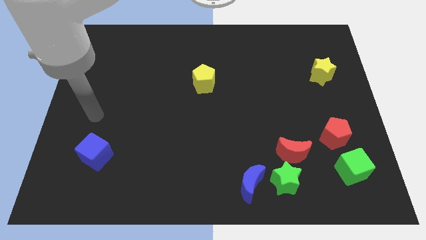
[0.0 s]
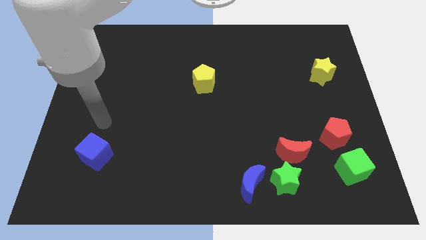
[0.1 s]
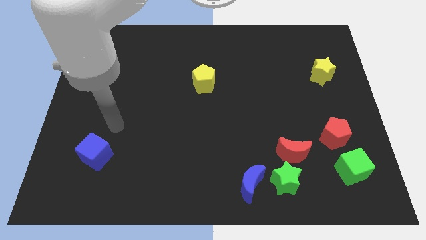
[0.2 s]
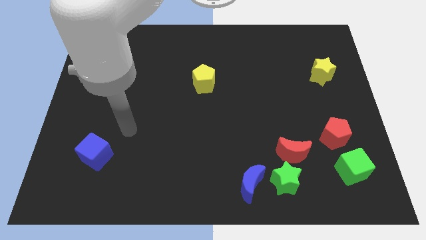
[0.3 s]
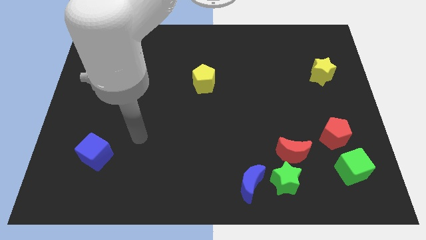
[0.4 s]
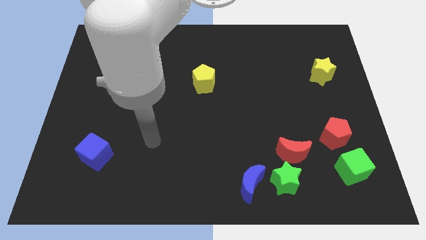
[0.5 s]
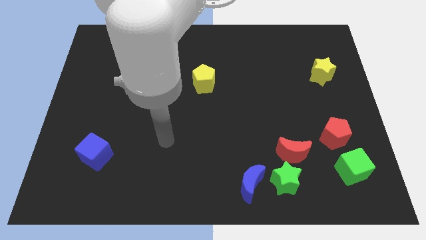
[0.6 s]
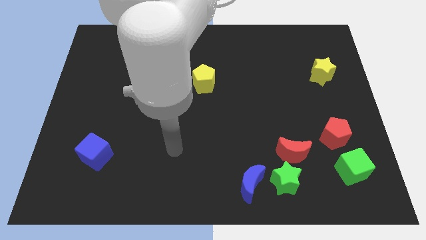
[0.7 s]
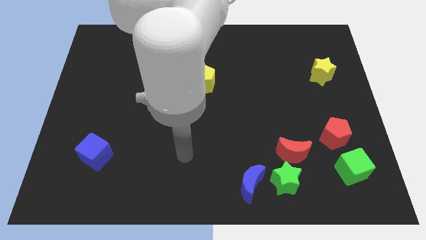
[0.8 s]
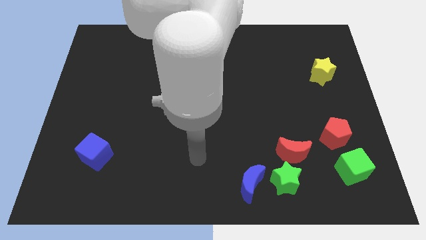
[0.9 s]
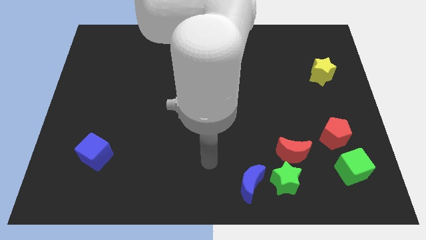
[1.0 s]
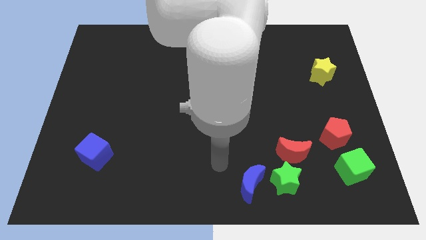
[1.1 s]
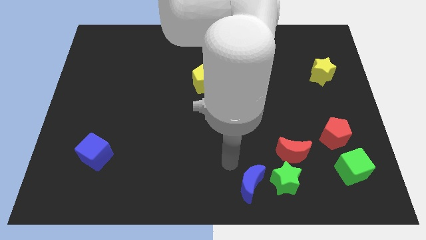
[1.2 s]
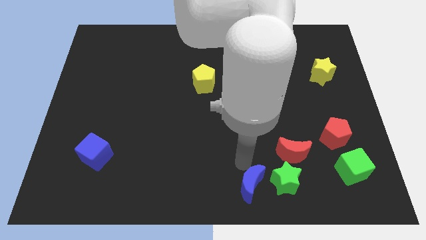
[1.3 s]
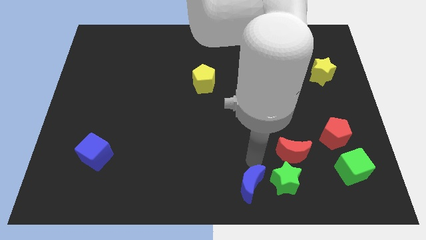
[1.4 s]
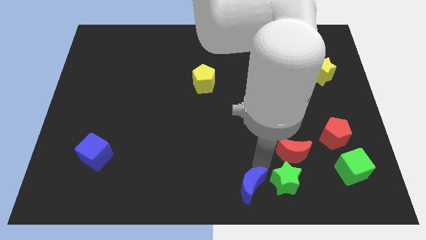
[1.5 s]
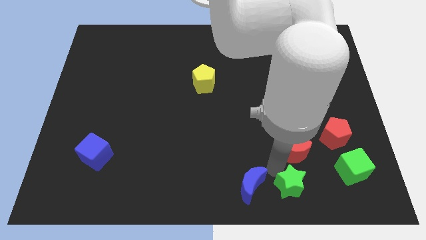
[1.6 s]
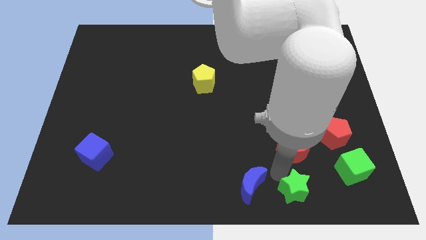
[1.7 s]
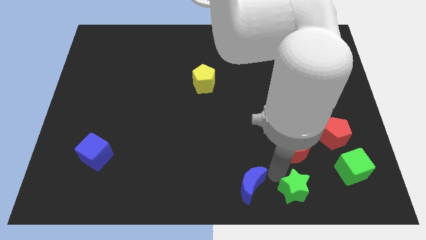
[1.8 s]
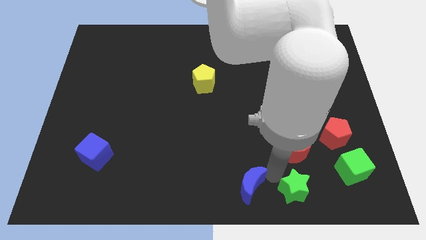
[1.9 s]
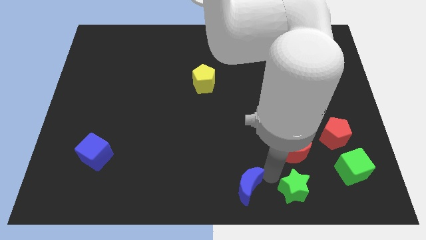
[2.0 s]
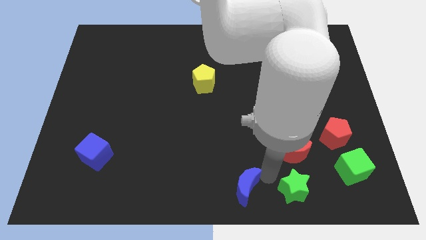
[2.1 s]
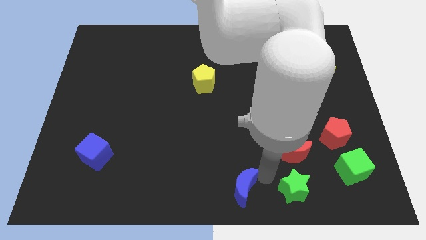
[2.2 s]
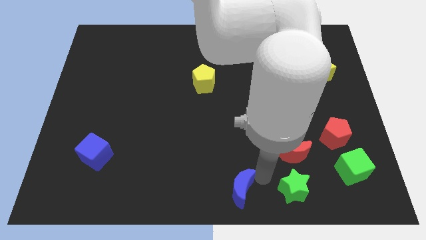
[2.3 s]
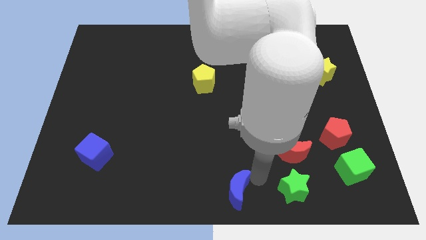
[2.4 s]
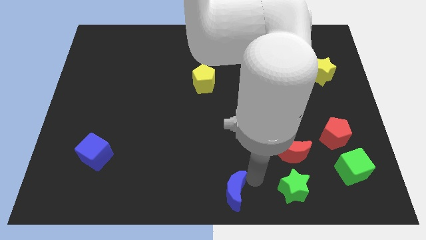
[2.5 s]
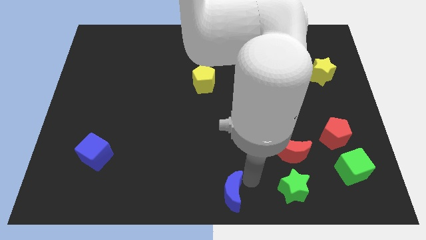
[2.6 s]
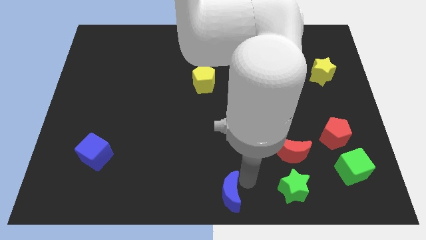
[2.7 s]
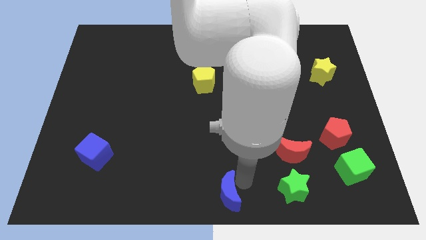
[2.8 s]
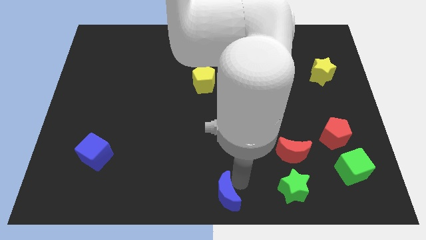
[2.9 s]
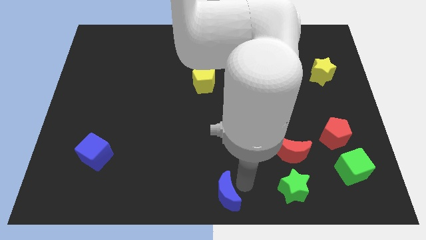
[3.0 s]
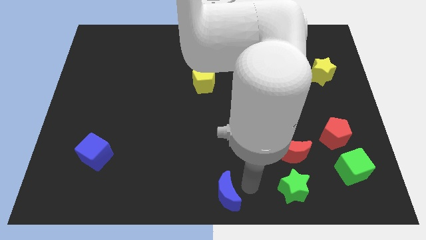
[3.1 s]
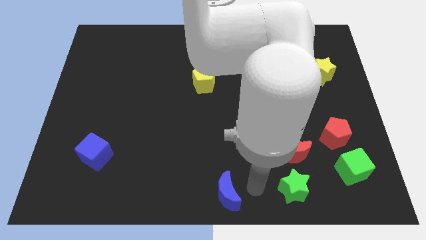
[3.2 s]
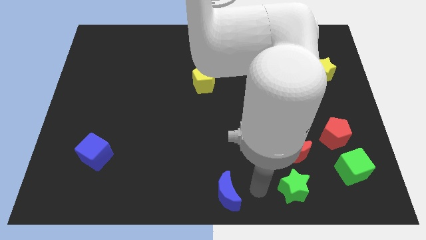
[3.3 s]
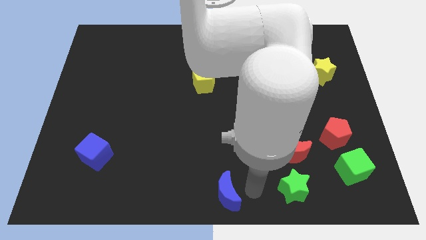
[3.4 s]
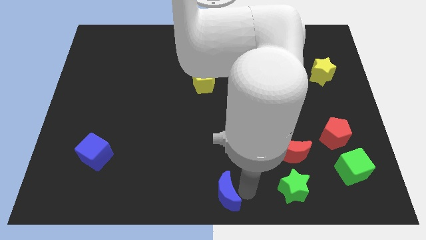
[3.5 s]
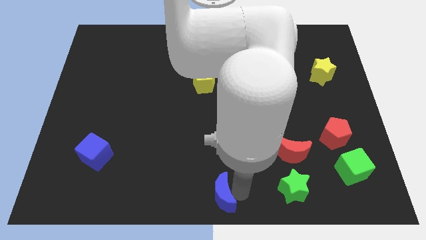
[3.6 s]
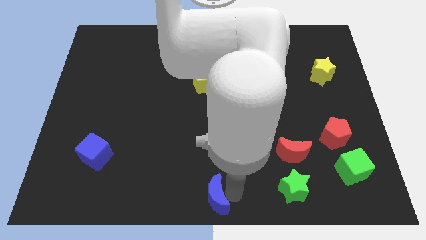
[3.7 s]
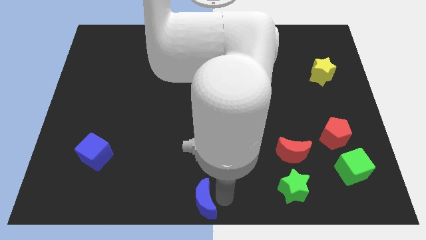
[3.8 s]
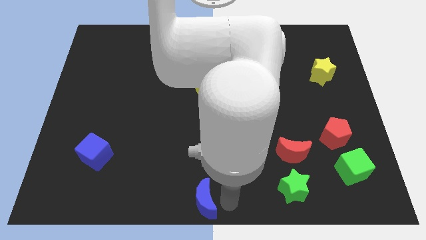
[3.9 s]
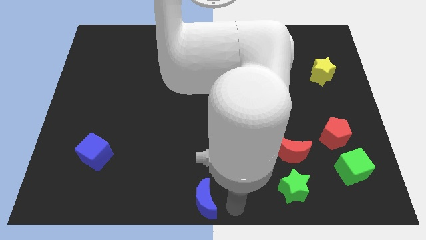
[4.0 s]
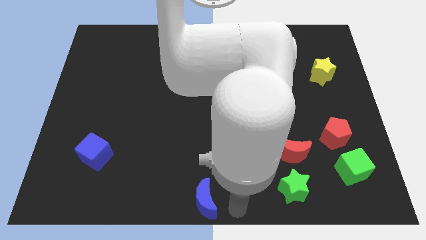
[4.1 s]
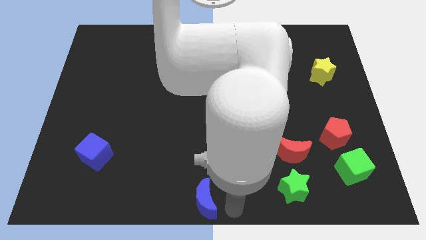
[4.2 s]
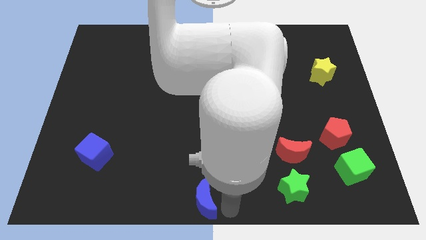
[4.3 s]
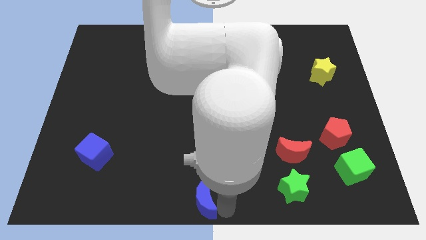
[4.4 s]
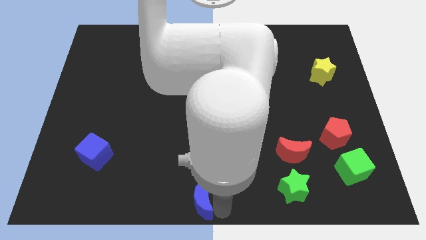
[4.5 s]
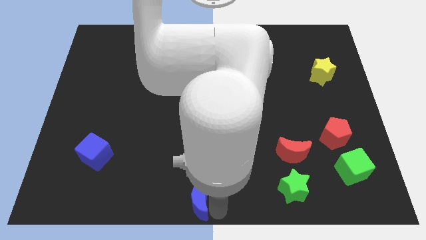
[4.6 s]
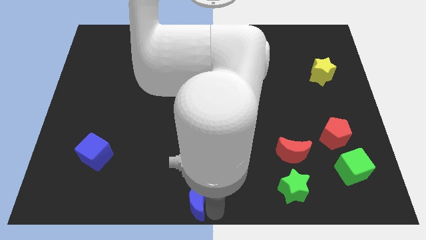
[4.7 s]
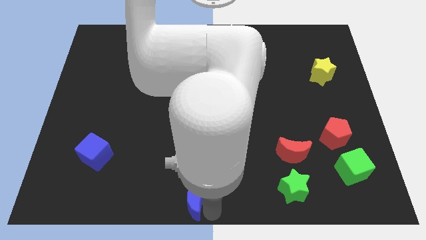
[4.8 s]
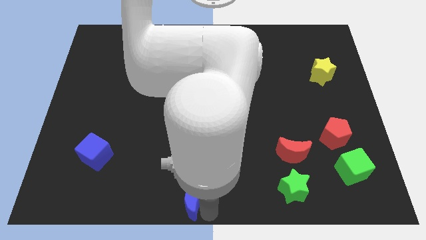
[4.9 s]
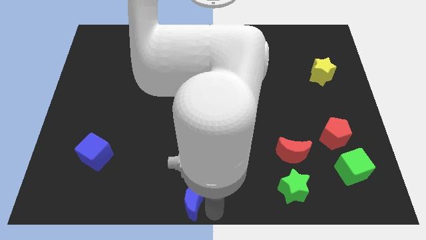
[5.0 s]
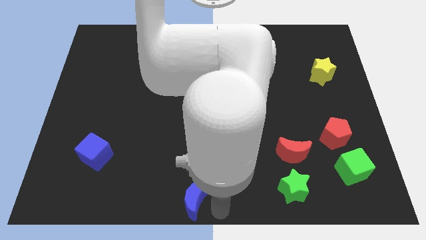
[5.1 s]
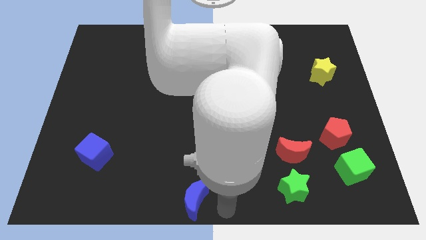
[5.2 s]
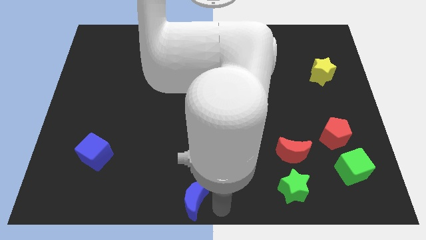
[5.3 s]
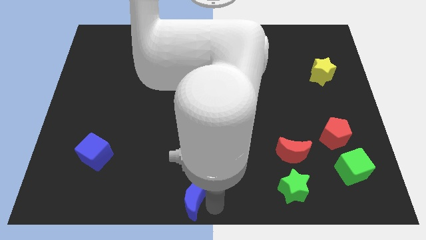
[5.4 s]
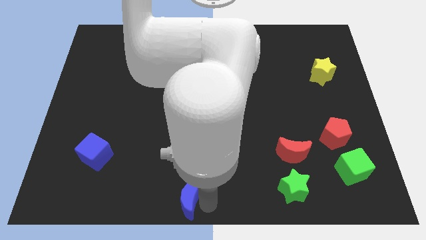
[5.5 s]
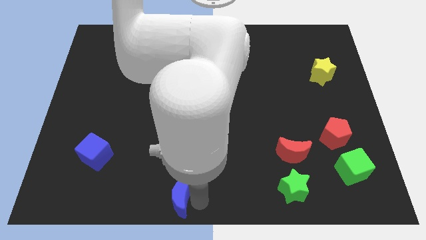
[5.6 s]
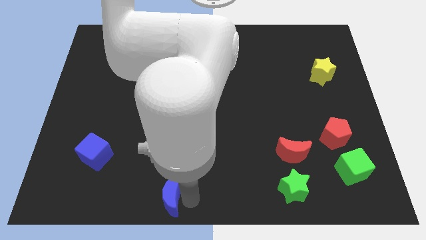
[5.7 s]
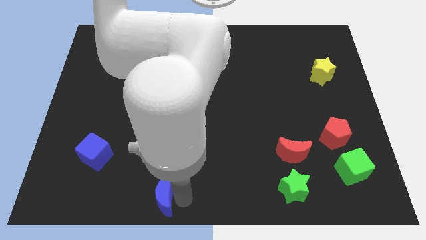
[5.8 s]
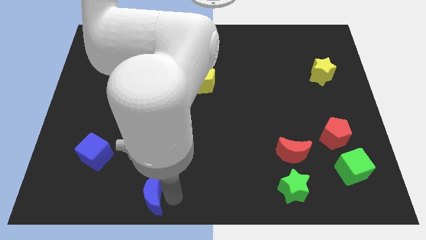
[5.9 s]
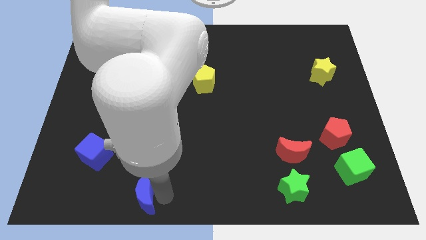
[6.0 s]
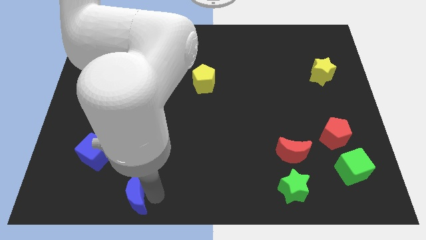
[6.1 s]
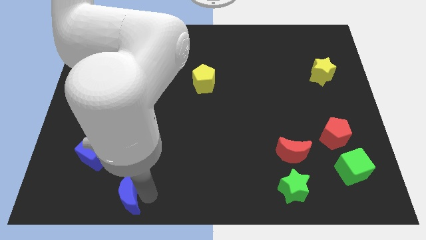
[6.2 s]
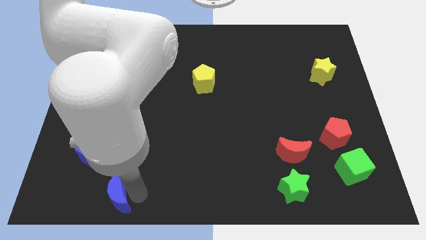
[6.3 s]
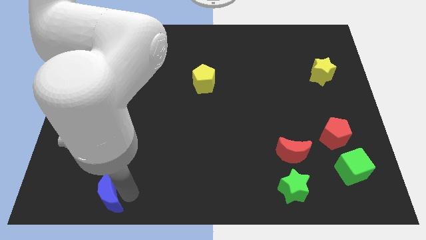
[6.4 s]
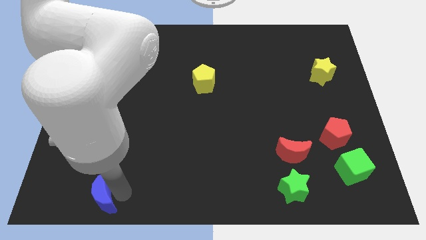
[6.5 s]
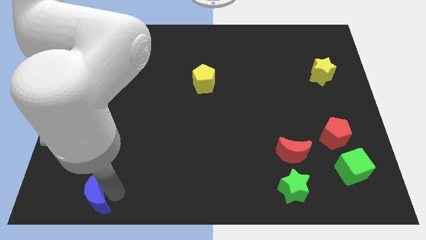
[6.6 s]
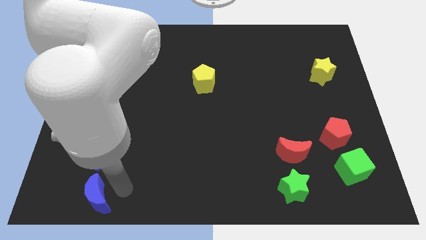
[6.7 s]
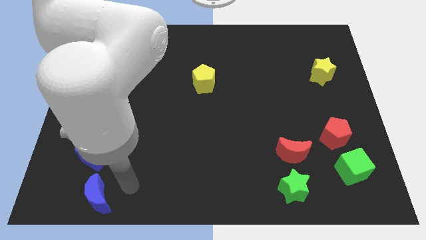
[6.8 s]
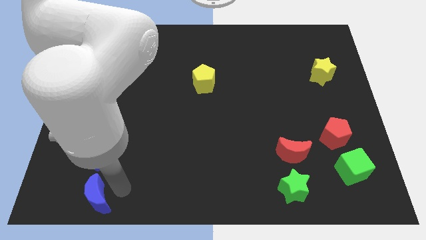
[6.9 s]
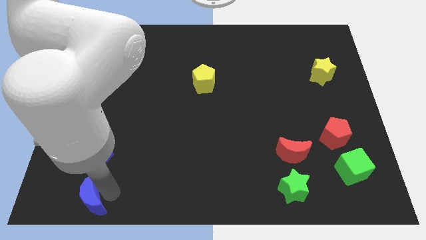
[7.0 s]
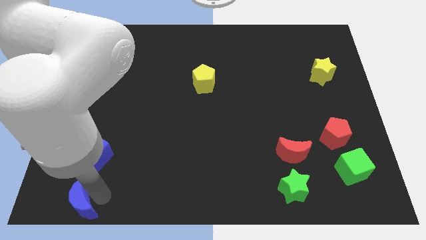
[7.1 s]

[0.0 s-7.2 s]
push the blue moon to the bottom left of the board
